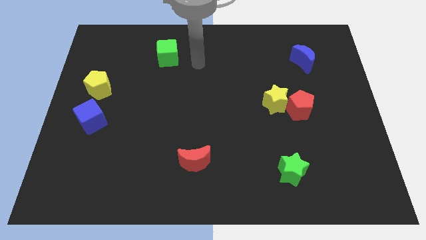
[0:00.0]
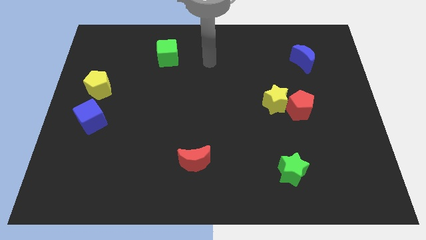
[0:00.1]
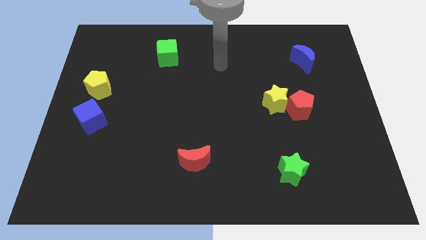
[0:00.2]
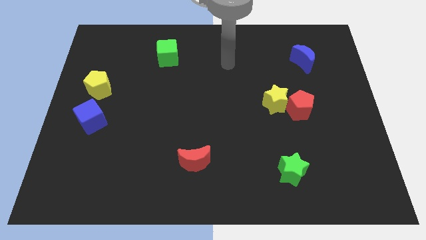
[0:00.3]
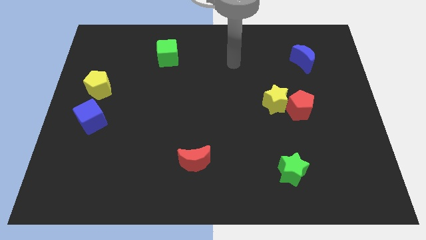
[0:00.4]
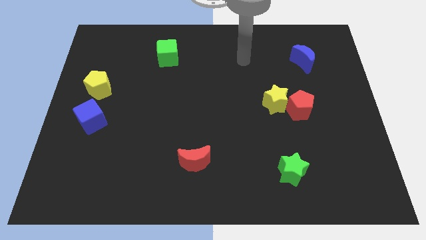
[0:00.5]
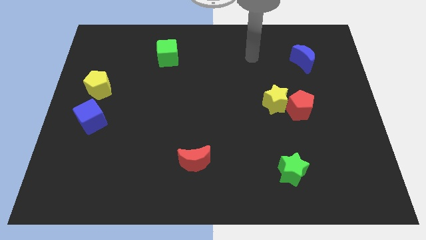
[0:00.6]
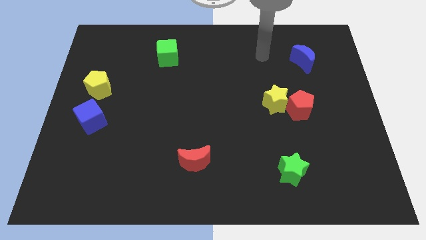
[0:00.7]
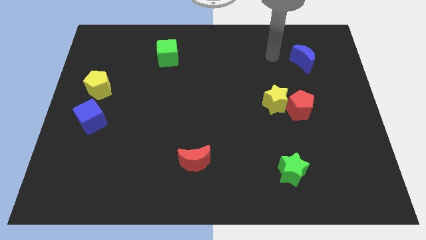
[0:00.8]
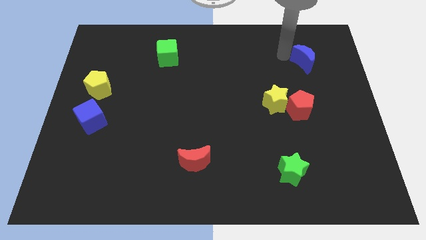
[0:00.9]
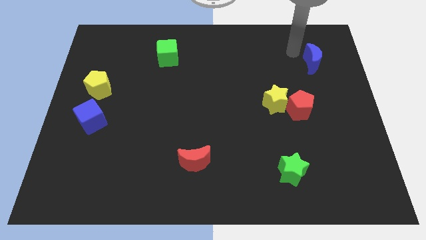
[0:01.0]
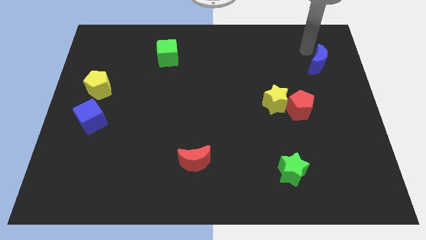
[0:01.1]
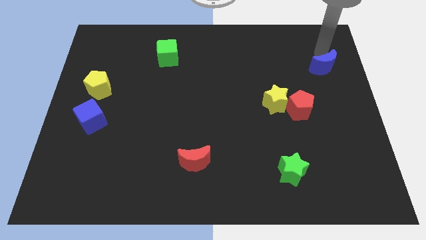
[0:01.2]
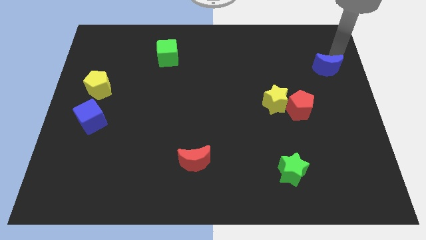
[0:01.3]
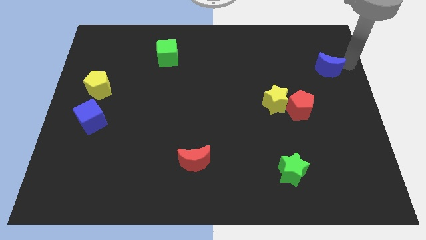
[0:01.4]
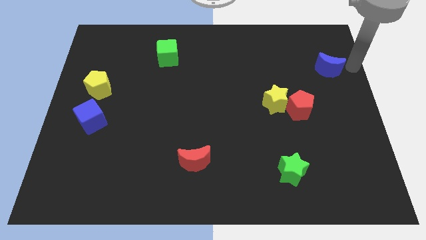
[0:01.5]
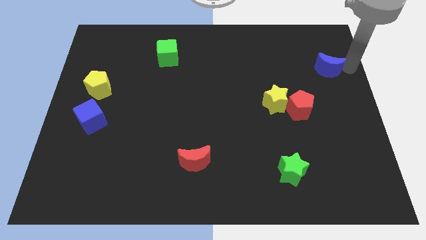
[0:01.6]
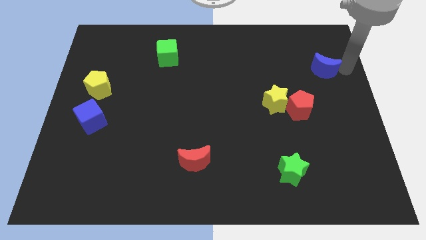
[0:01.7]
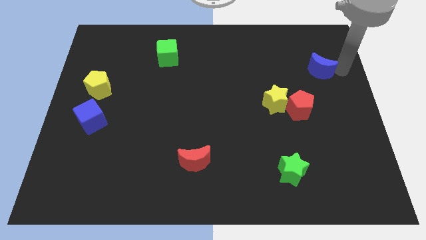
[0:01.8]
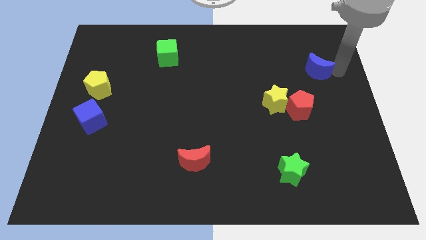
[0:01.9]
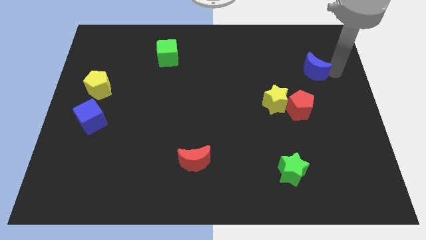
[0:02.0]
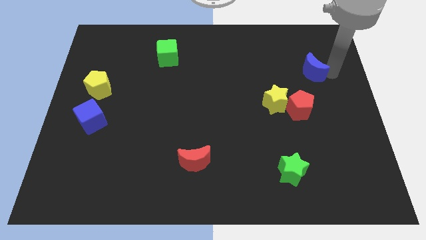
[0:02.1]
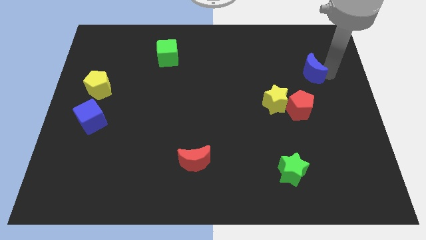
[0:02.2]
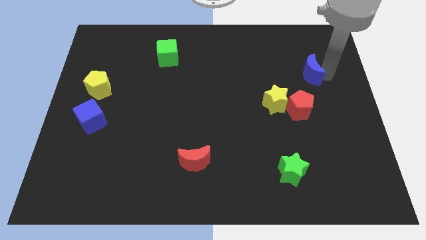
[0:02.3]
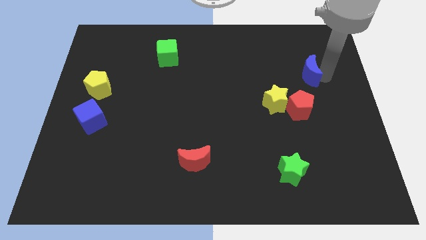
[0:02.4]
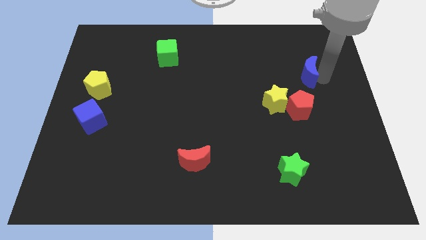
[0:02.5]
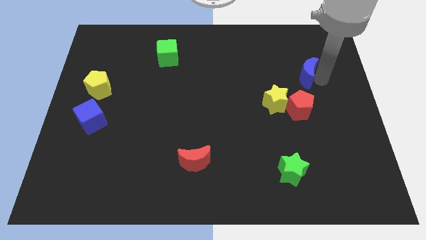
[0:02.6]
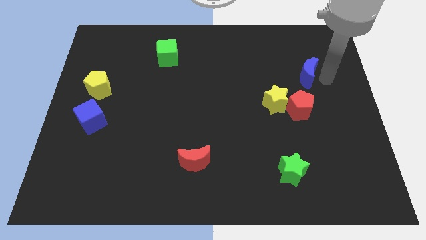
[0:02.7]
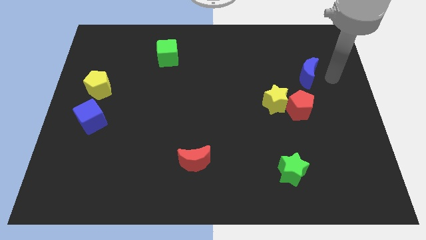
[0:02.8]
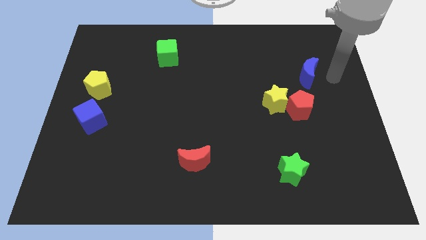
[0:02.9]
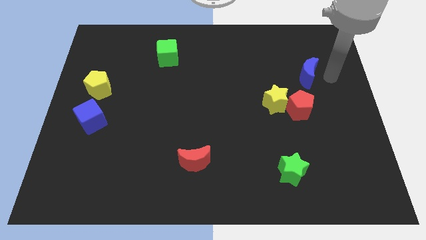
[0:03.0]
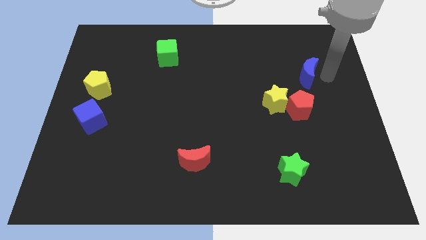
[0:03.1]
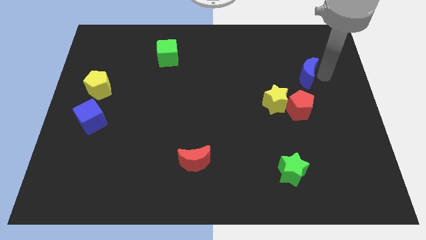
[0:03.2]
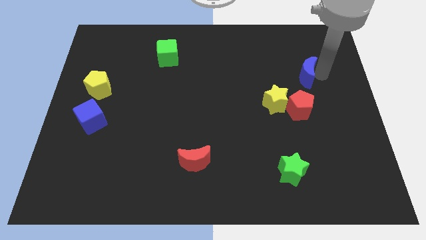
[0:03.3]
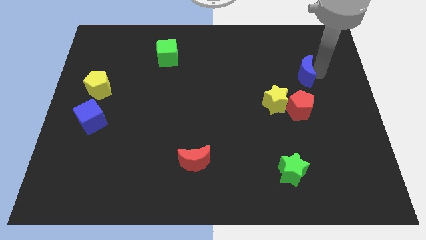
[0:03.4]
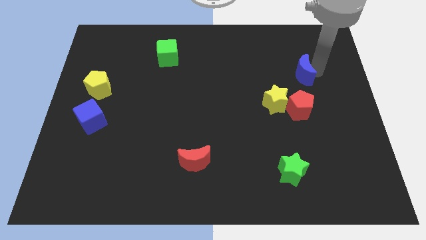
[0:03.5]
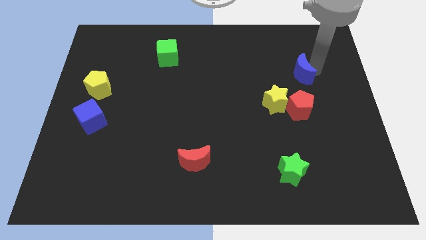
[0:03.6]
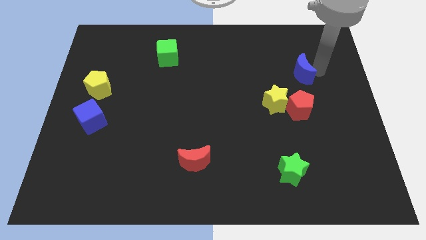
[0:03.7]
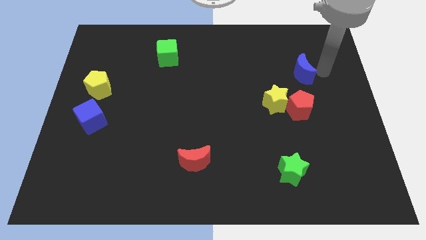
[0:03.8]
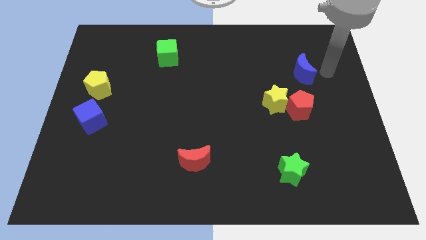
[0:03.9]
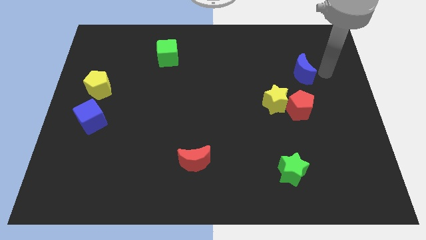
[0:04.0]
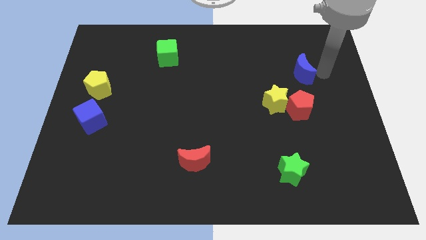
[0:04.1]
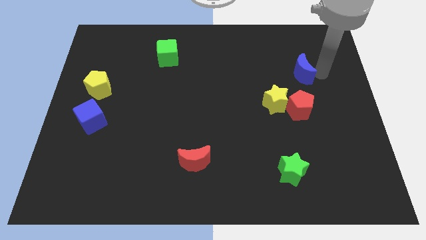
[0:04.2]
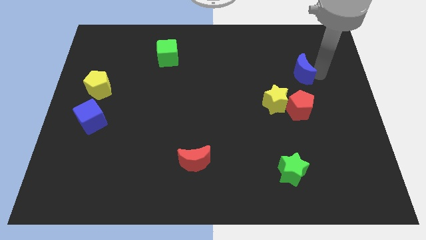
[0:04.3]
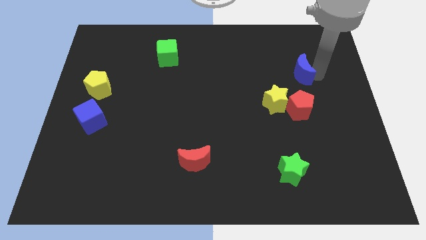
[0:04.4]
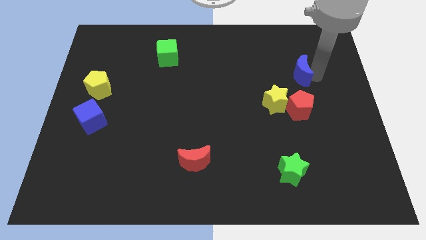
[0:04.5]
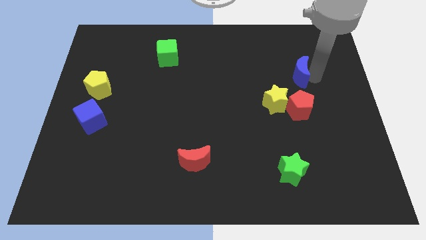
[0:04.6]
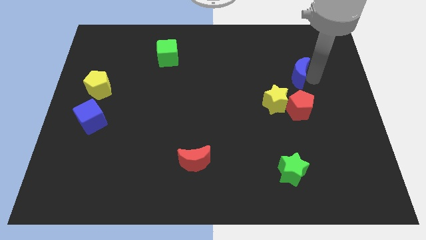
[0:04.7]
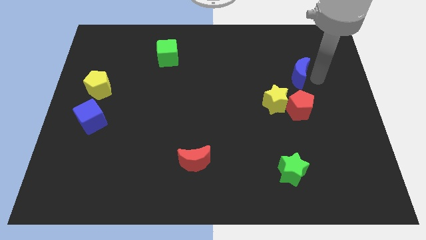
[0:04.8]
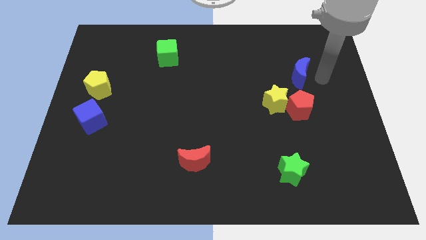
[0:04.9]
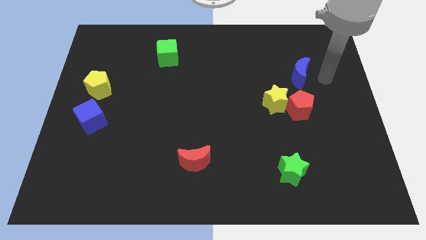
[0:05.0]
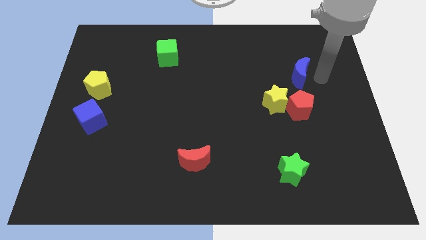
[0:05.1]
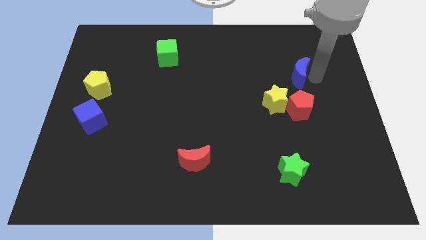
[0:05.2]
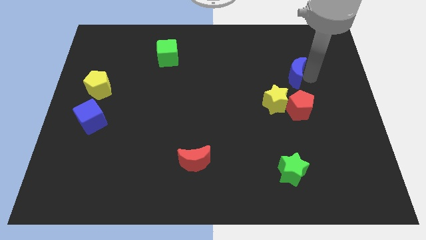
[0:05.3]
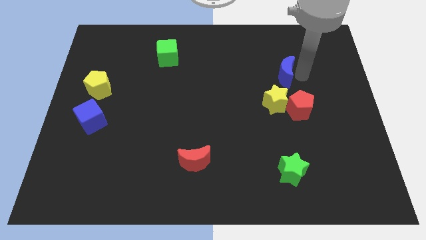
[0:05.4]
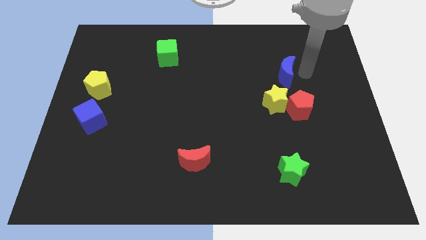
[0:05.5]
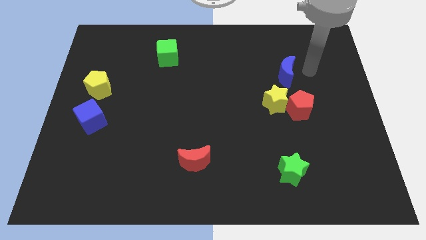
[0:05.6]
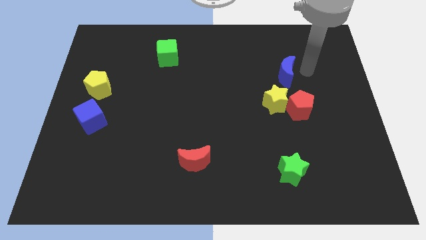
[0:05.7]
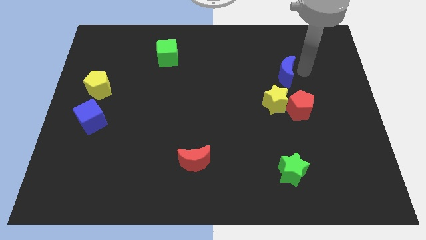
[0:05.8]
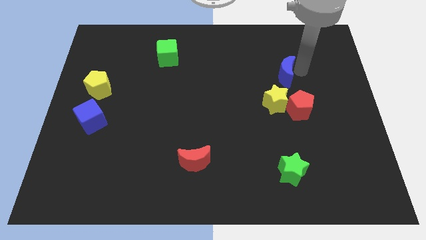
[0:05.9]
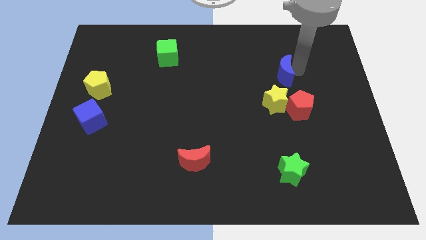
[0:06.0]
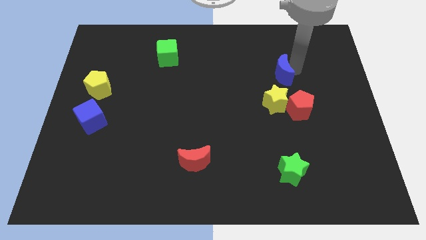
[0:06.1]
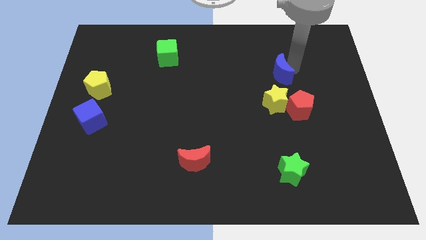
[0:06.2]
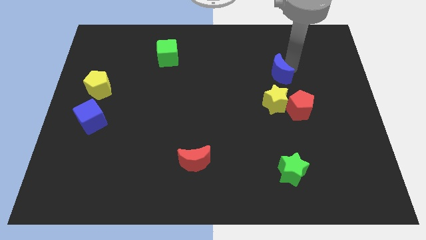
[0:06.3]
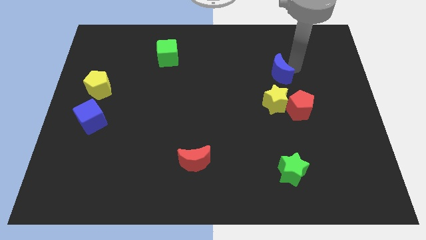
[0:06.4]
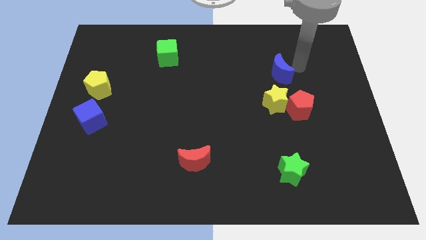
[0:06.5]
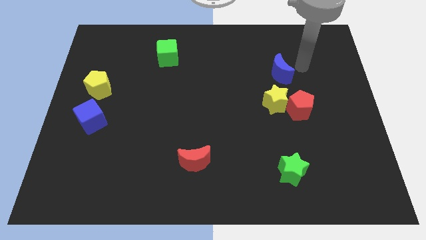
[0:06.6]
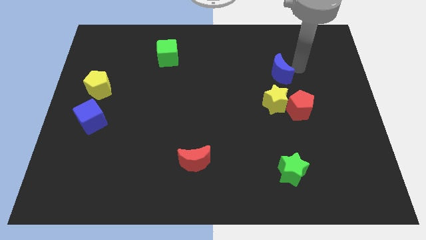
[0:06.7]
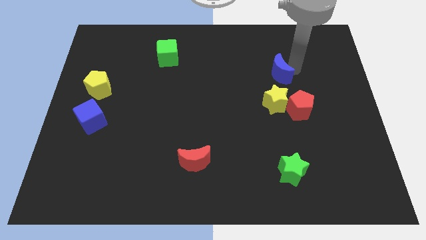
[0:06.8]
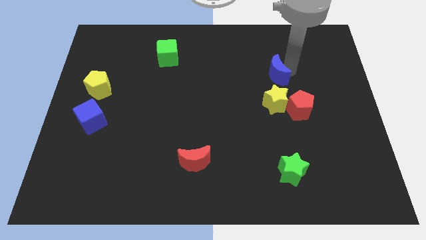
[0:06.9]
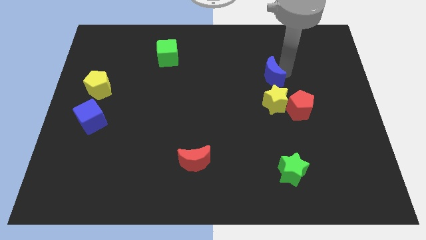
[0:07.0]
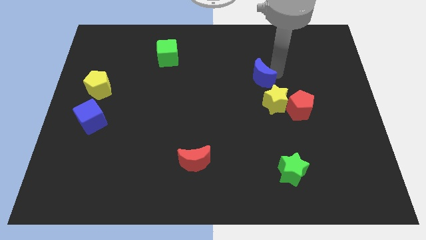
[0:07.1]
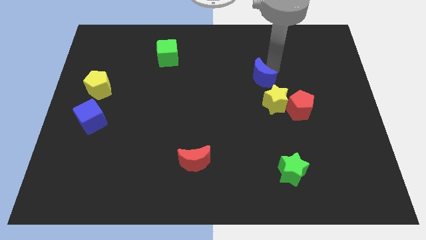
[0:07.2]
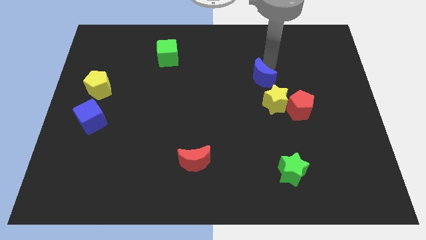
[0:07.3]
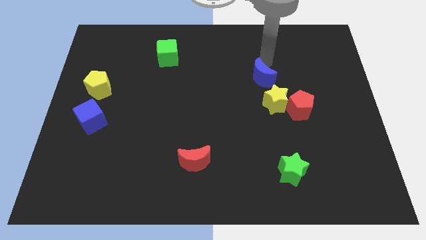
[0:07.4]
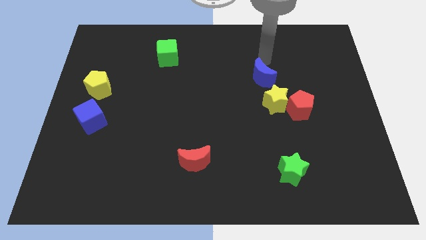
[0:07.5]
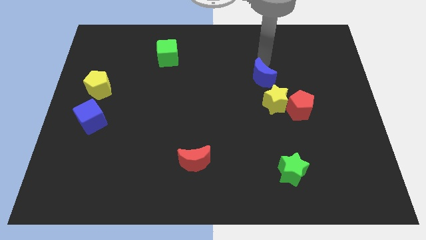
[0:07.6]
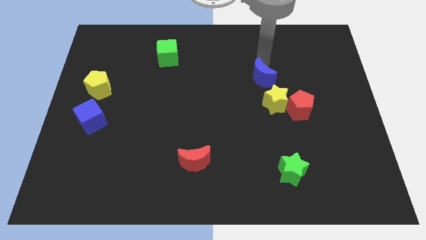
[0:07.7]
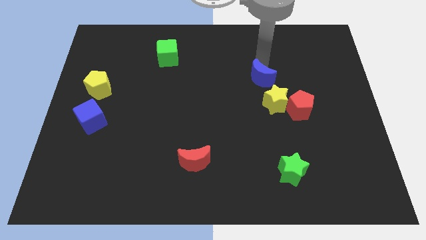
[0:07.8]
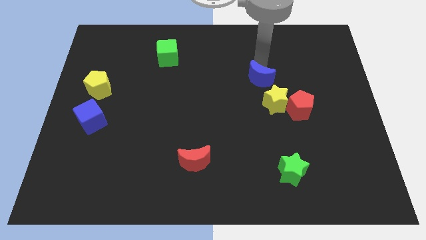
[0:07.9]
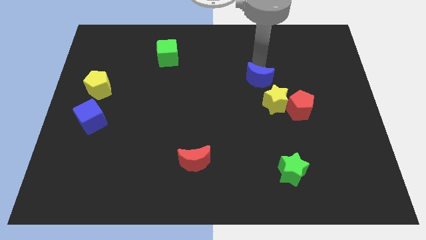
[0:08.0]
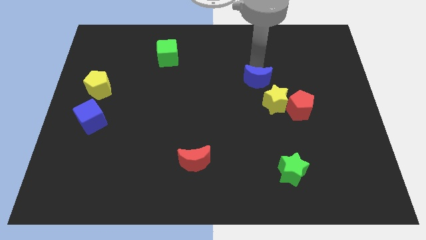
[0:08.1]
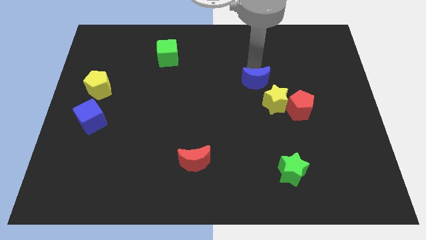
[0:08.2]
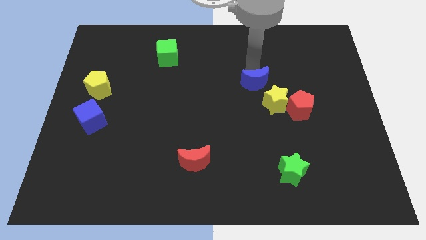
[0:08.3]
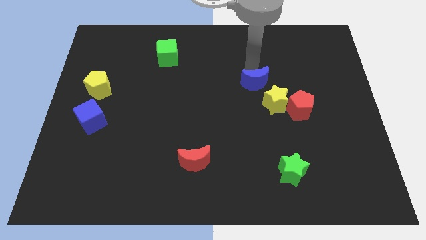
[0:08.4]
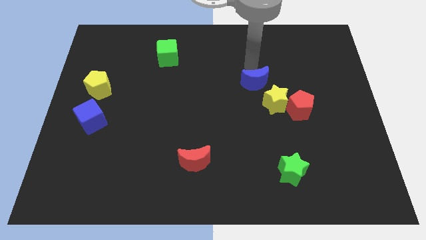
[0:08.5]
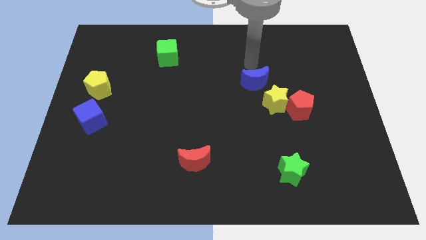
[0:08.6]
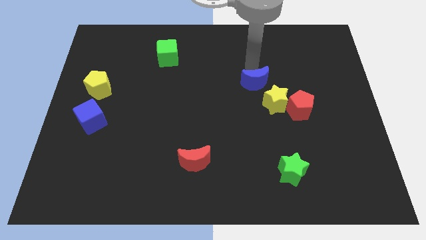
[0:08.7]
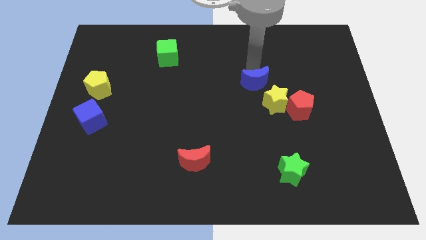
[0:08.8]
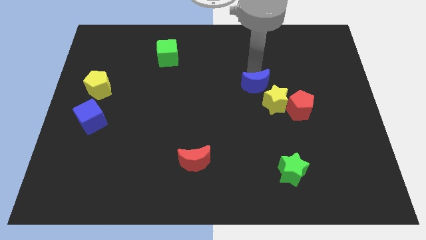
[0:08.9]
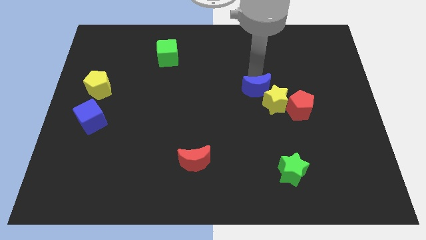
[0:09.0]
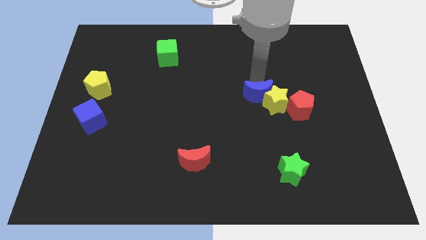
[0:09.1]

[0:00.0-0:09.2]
push the blue moon to the left of the red pentagon
